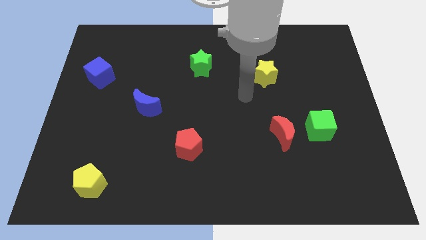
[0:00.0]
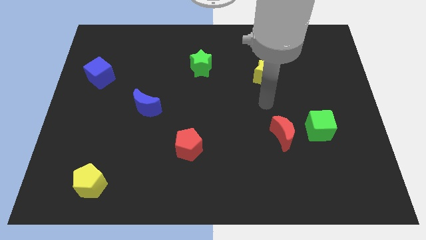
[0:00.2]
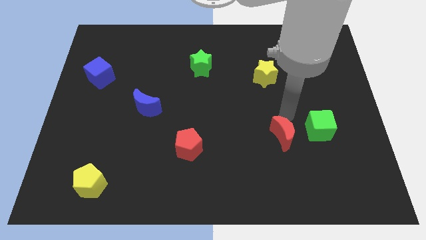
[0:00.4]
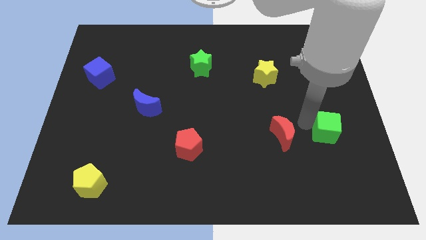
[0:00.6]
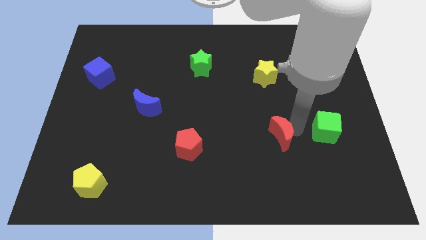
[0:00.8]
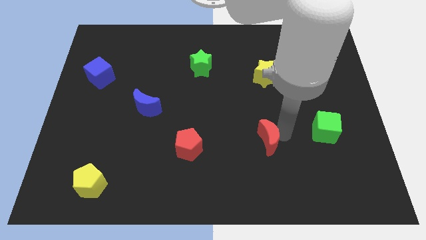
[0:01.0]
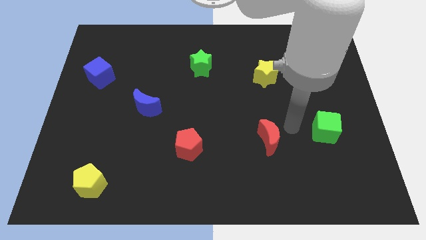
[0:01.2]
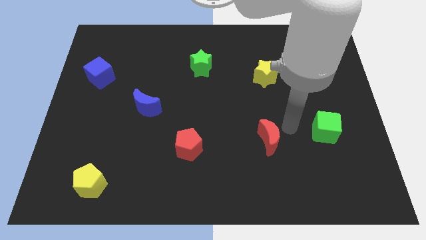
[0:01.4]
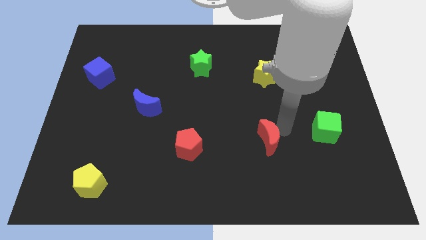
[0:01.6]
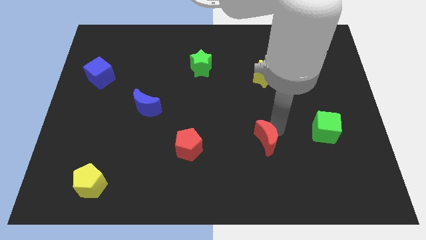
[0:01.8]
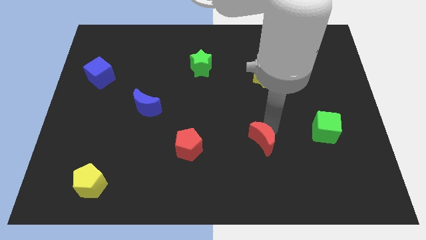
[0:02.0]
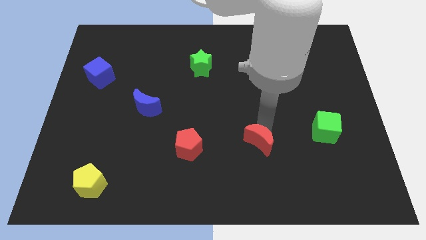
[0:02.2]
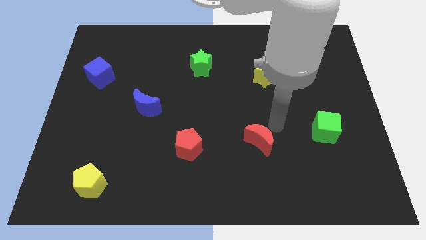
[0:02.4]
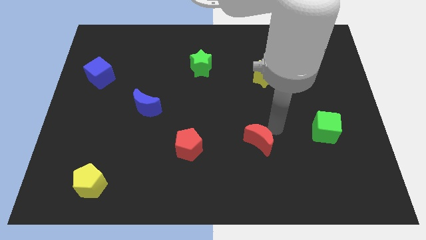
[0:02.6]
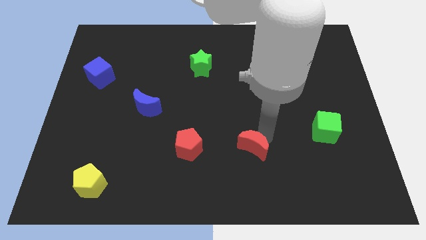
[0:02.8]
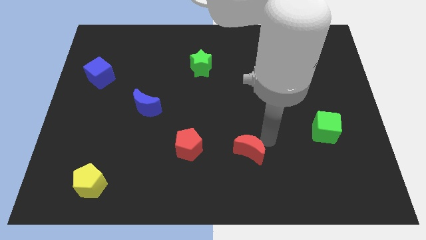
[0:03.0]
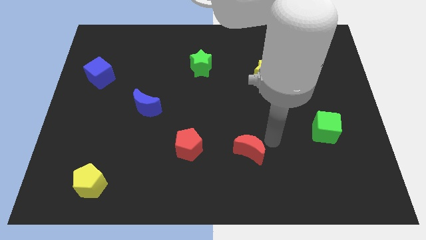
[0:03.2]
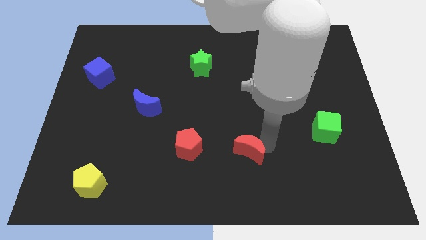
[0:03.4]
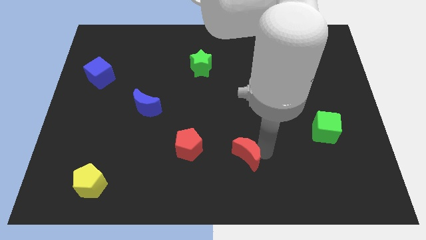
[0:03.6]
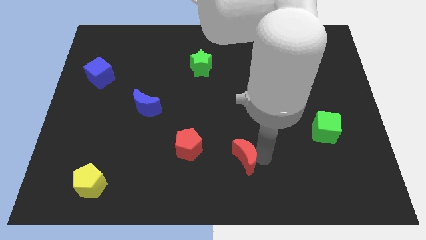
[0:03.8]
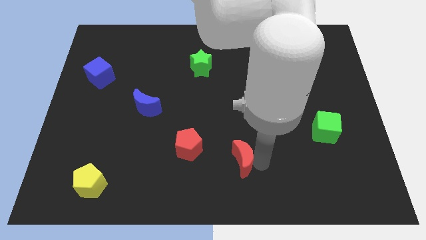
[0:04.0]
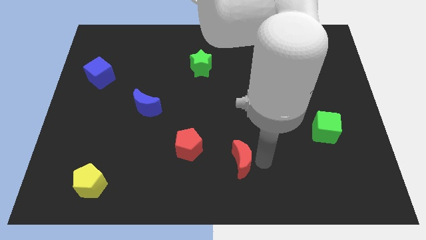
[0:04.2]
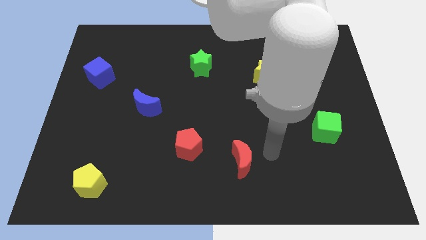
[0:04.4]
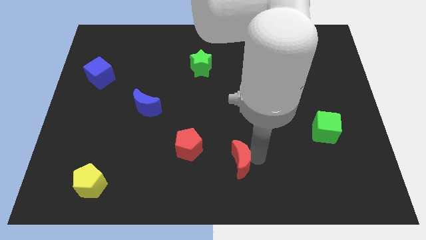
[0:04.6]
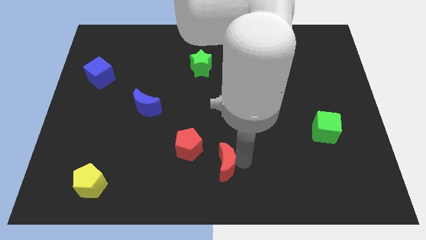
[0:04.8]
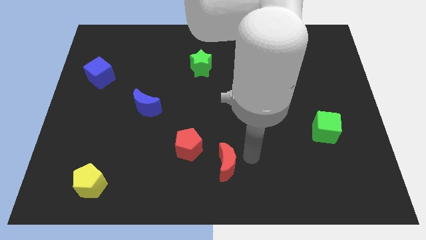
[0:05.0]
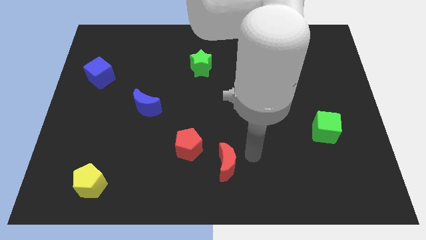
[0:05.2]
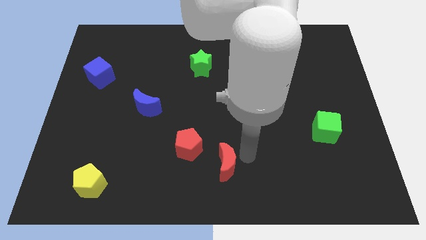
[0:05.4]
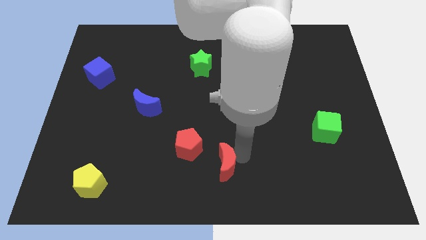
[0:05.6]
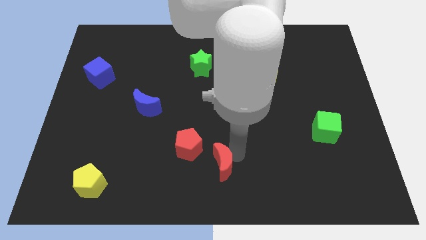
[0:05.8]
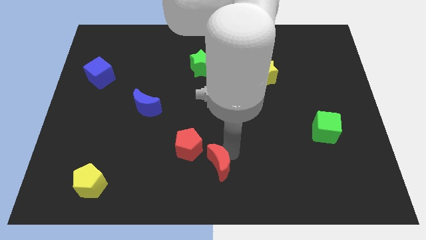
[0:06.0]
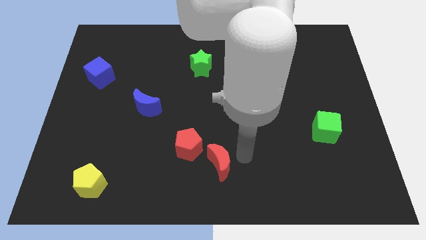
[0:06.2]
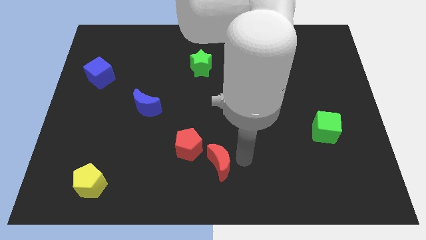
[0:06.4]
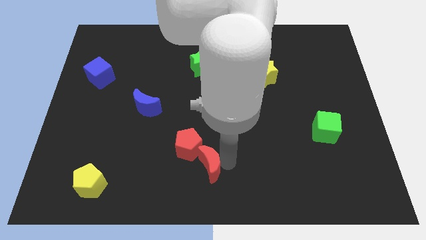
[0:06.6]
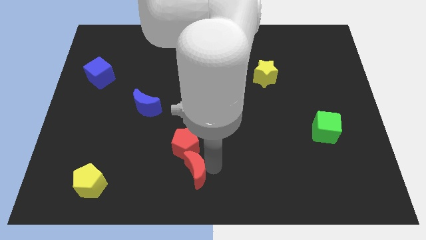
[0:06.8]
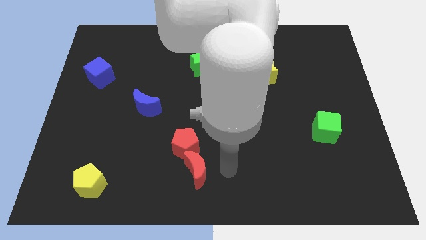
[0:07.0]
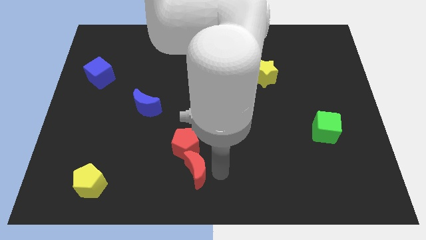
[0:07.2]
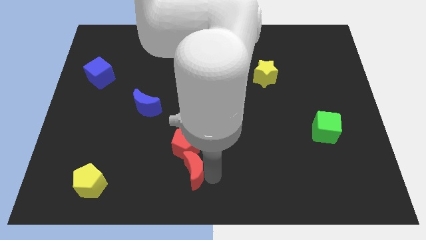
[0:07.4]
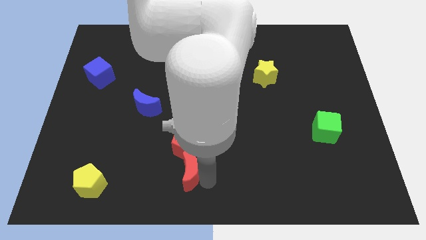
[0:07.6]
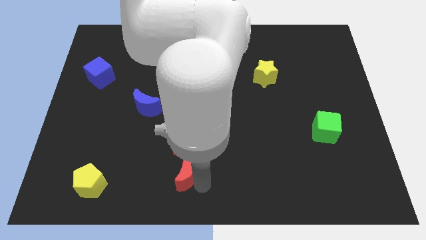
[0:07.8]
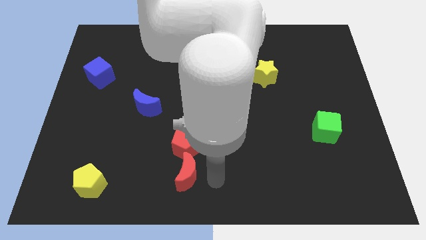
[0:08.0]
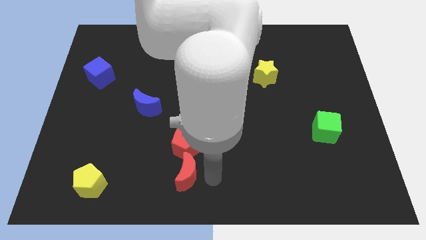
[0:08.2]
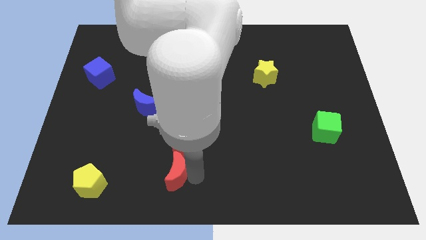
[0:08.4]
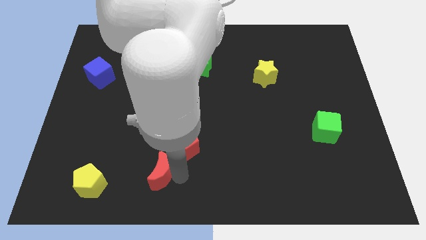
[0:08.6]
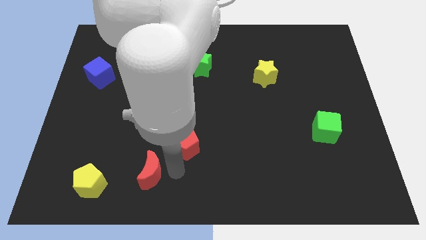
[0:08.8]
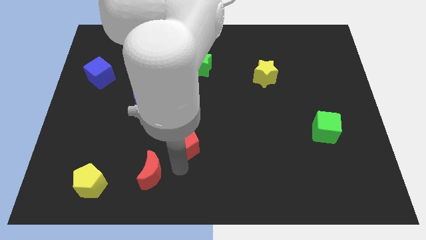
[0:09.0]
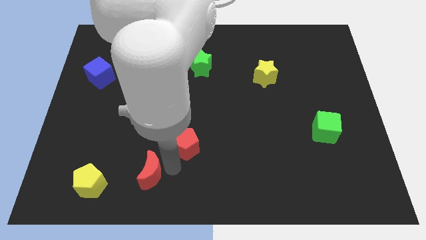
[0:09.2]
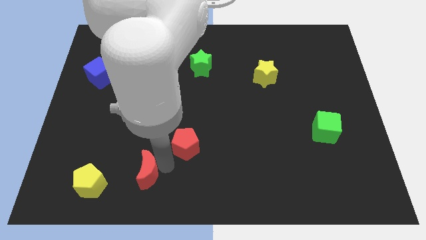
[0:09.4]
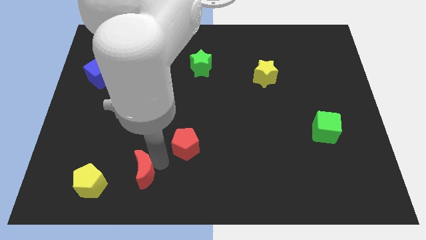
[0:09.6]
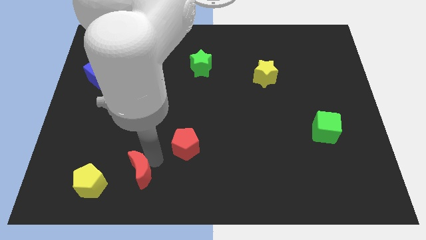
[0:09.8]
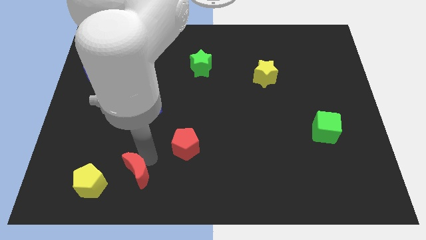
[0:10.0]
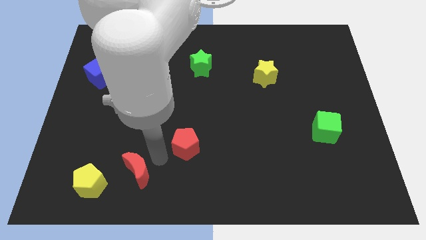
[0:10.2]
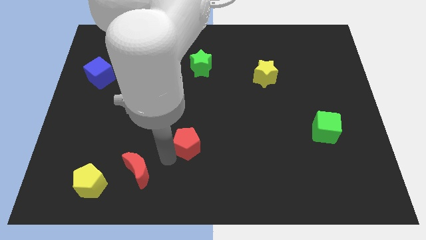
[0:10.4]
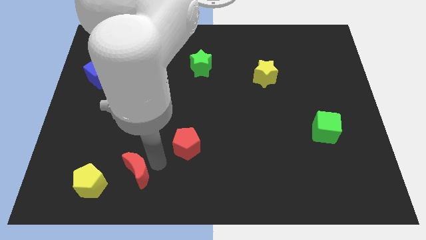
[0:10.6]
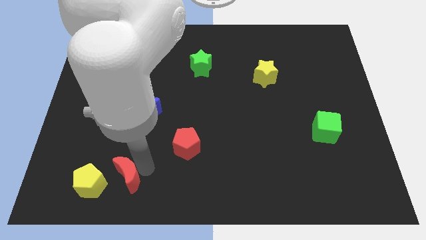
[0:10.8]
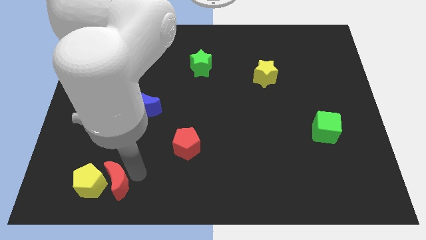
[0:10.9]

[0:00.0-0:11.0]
put the red moon towards the yellow pentagon

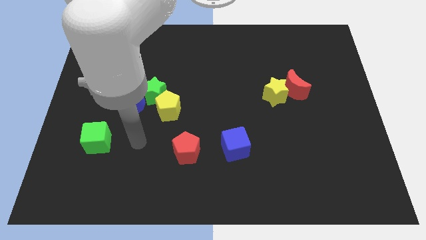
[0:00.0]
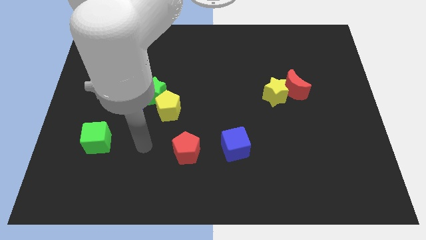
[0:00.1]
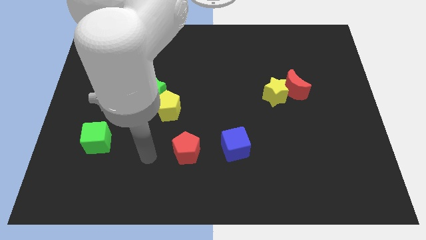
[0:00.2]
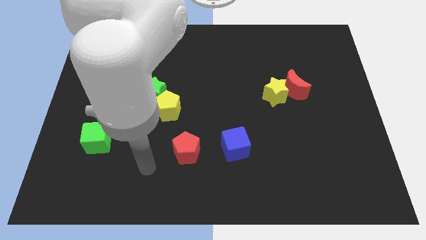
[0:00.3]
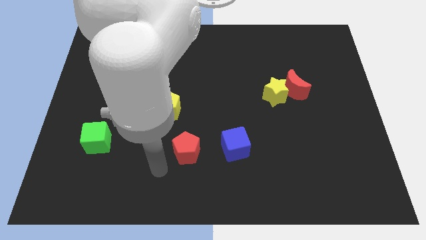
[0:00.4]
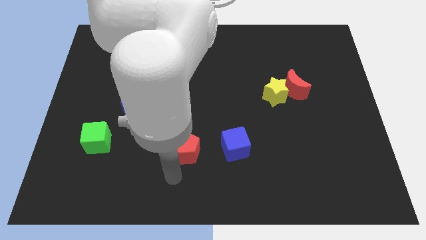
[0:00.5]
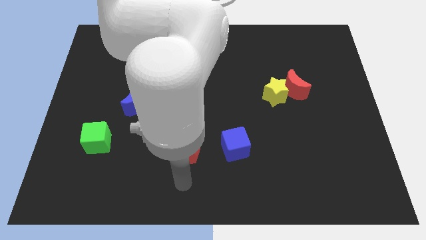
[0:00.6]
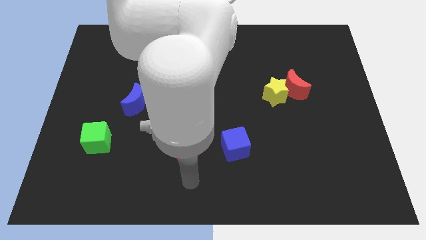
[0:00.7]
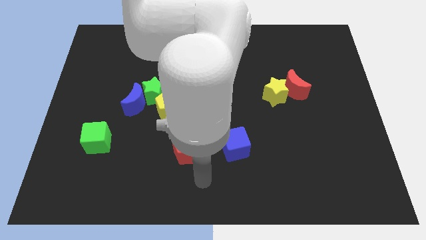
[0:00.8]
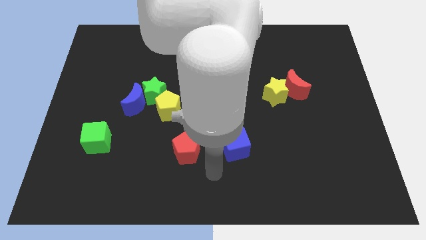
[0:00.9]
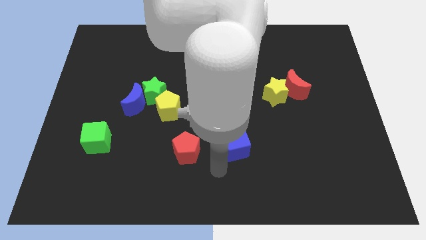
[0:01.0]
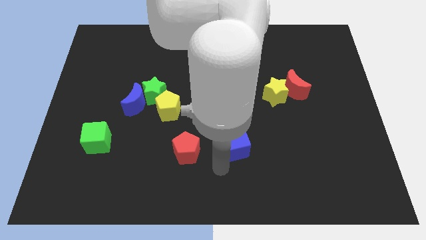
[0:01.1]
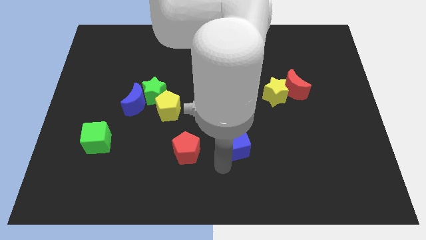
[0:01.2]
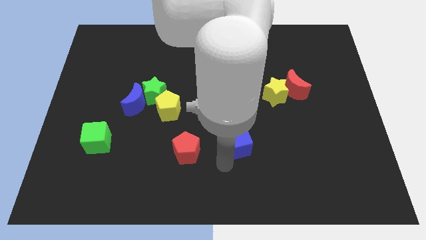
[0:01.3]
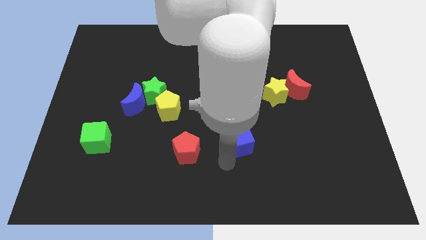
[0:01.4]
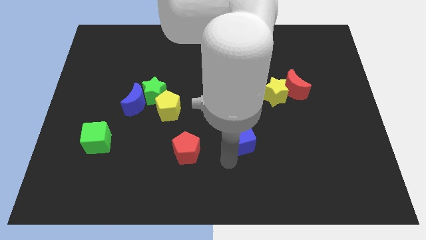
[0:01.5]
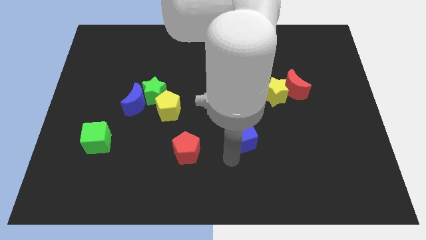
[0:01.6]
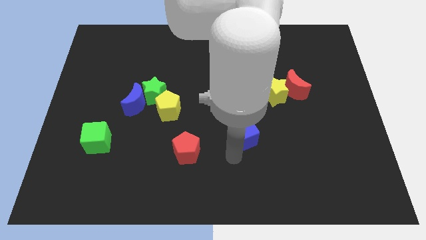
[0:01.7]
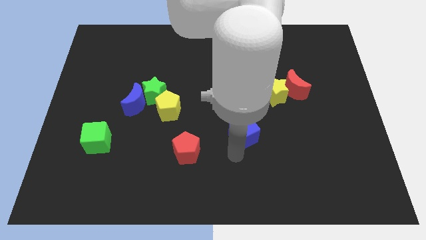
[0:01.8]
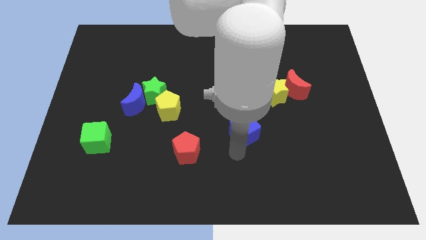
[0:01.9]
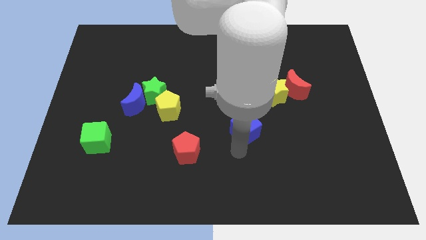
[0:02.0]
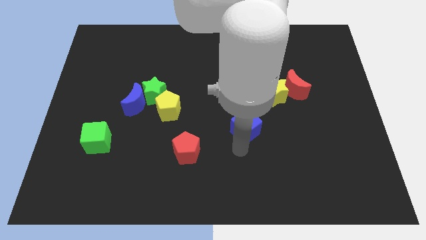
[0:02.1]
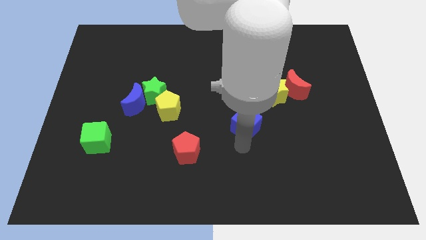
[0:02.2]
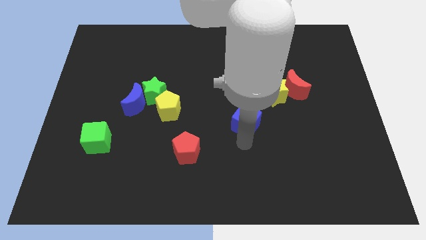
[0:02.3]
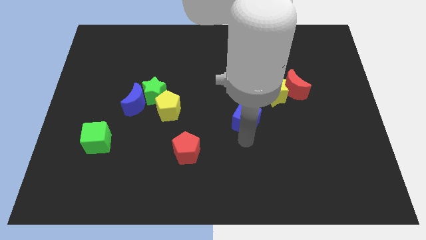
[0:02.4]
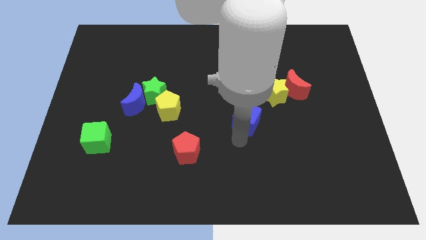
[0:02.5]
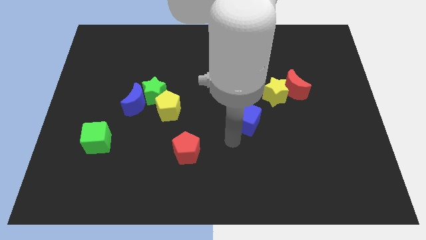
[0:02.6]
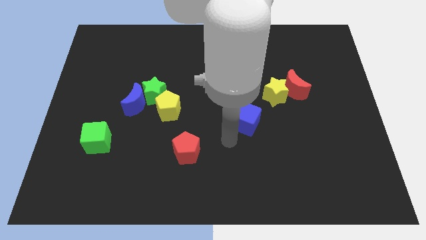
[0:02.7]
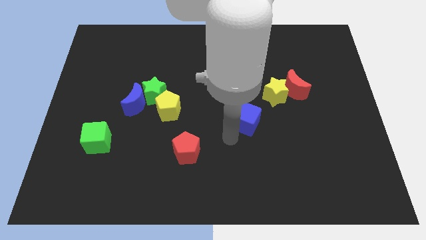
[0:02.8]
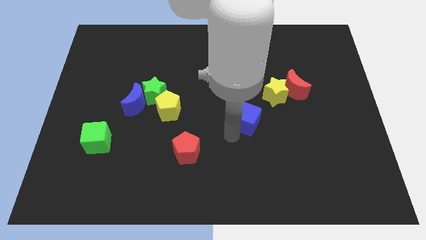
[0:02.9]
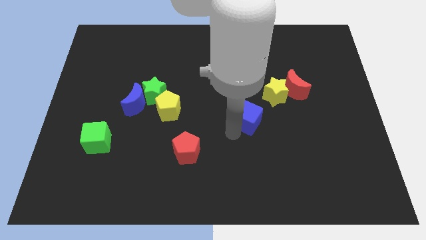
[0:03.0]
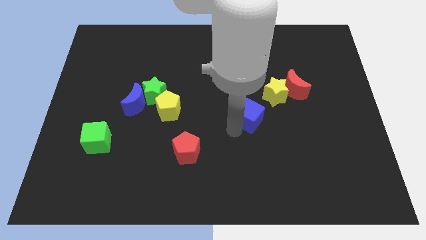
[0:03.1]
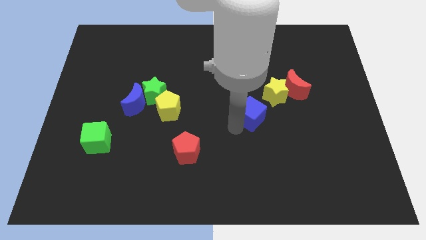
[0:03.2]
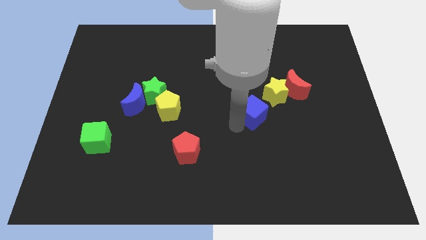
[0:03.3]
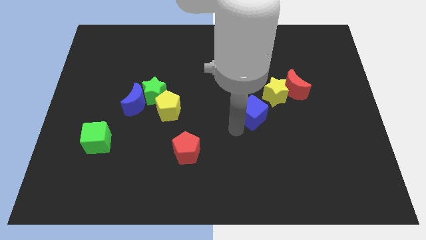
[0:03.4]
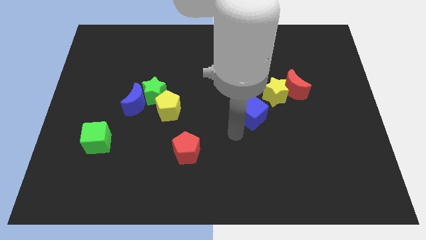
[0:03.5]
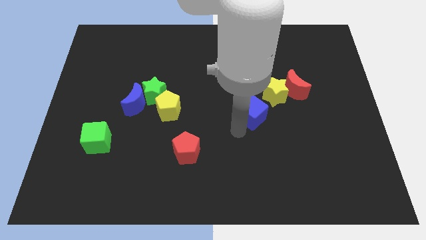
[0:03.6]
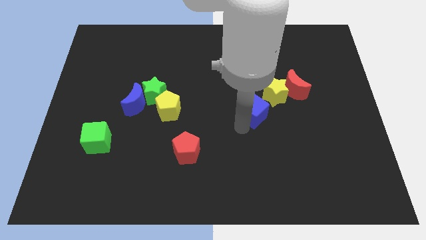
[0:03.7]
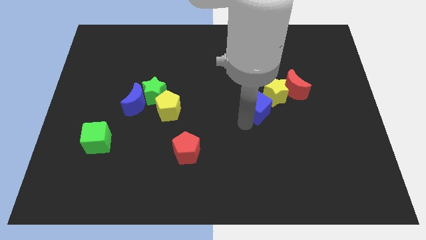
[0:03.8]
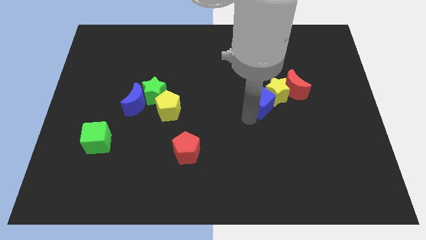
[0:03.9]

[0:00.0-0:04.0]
slide the blue cube towards the yellow star
